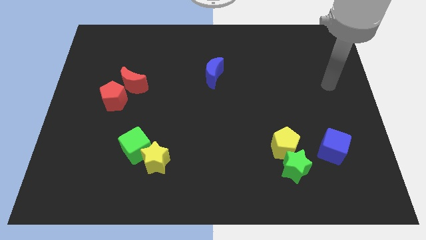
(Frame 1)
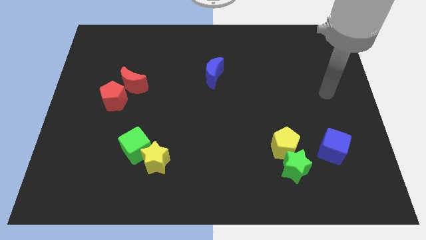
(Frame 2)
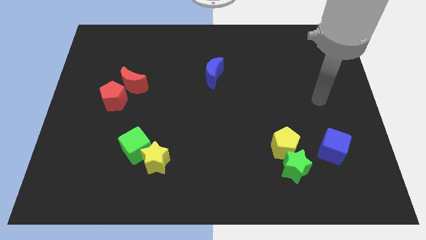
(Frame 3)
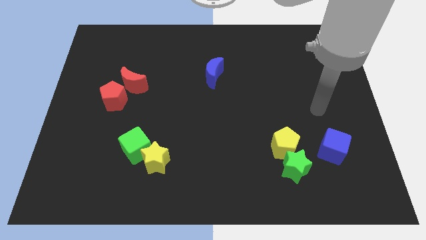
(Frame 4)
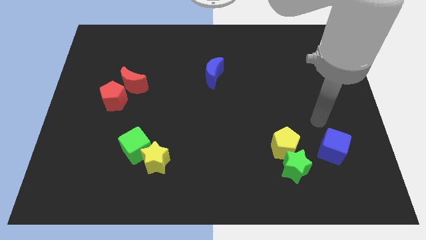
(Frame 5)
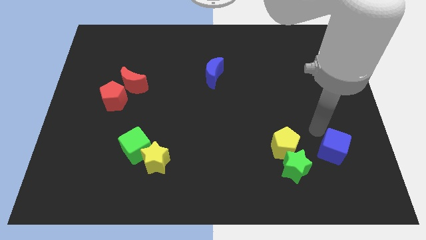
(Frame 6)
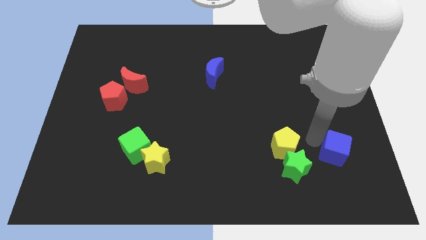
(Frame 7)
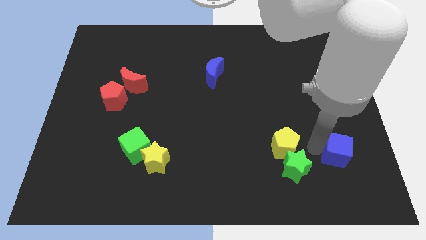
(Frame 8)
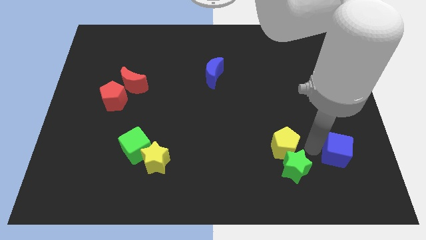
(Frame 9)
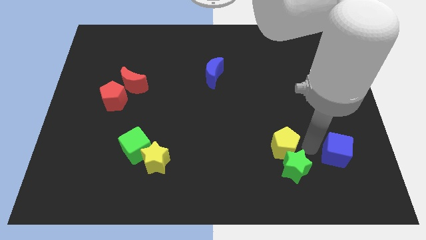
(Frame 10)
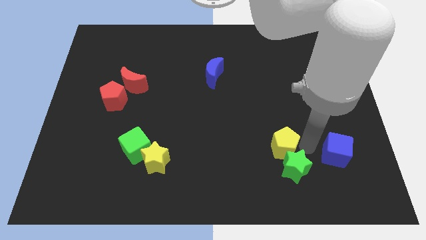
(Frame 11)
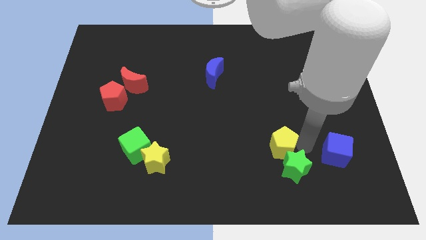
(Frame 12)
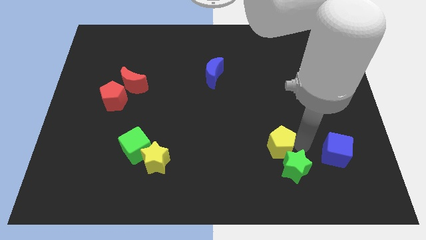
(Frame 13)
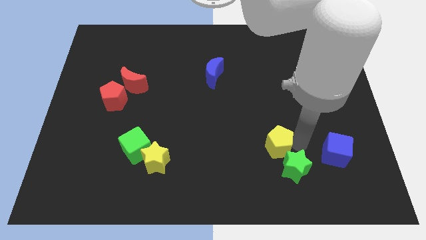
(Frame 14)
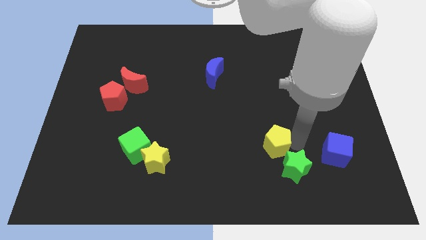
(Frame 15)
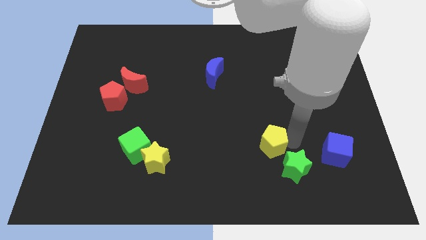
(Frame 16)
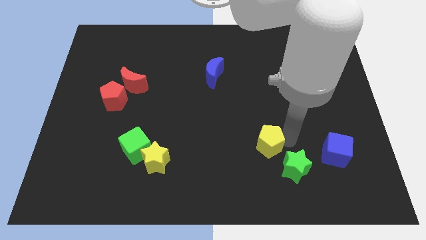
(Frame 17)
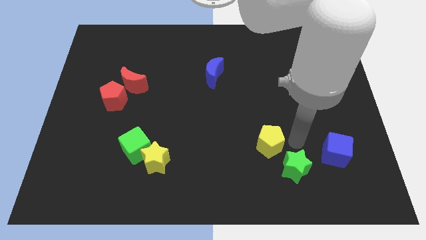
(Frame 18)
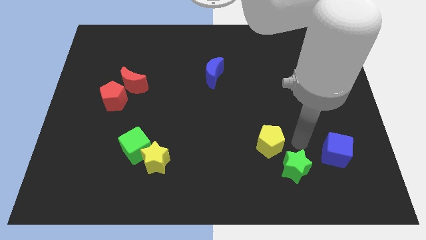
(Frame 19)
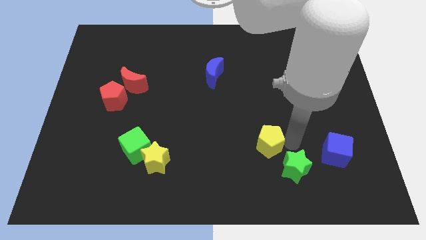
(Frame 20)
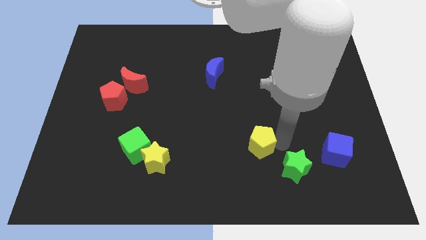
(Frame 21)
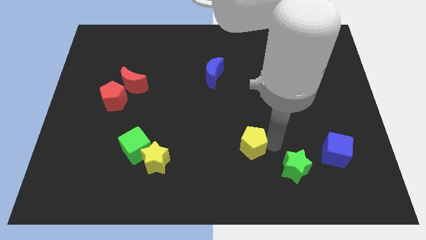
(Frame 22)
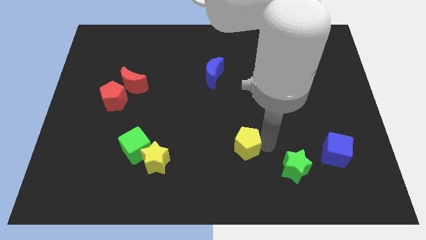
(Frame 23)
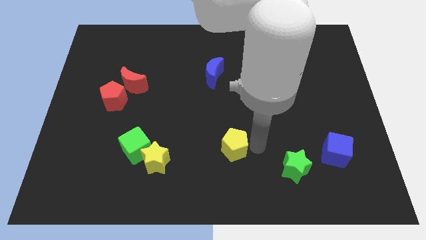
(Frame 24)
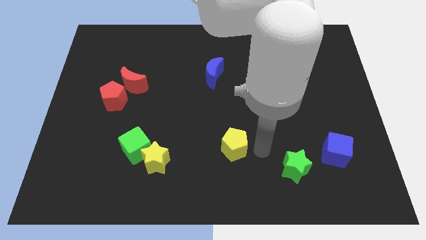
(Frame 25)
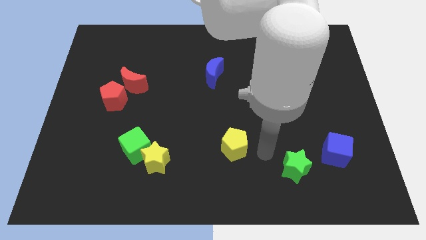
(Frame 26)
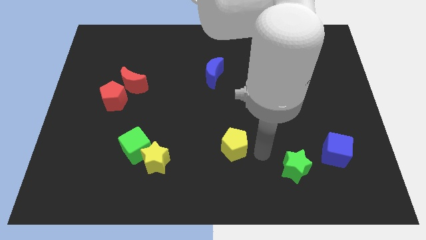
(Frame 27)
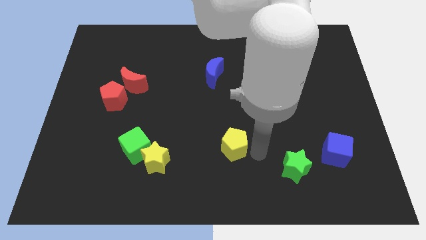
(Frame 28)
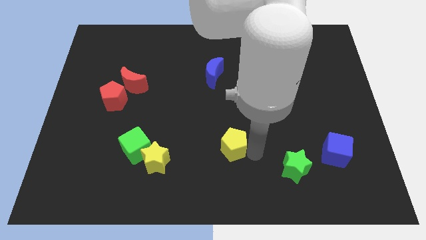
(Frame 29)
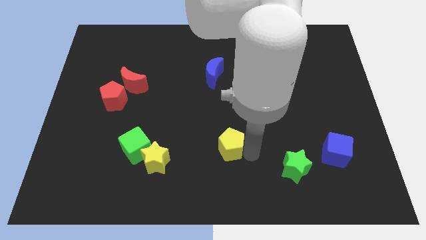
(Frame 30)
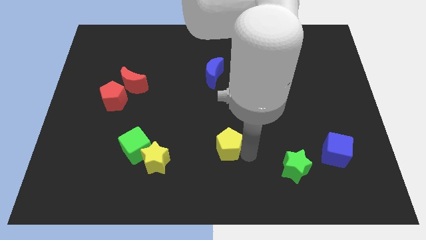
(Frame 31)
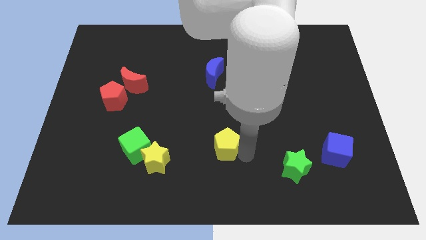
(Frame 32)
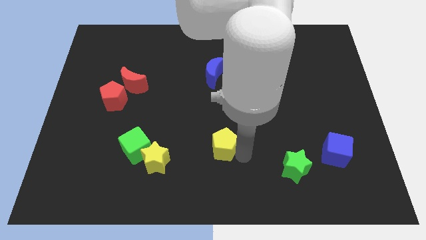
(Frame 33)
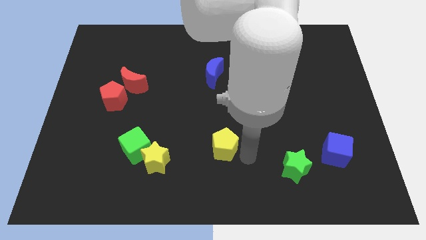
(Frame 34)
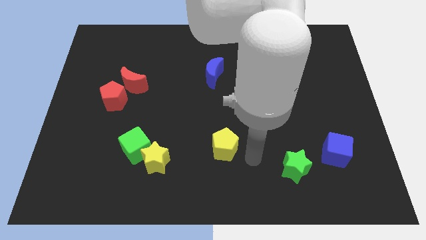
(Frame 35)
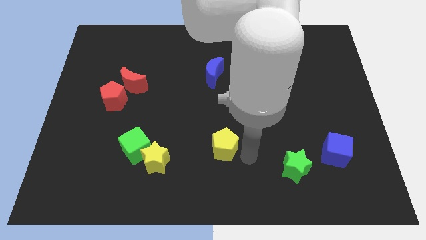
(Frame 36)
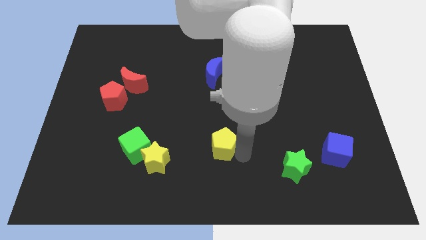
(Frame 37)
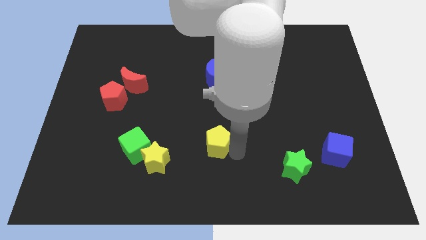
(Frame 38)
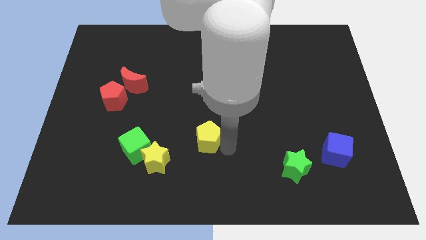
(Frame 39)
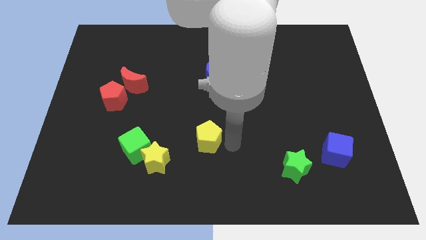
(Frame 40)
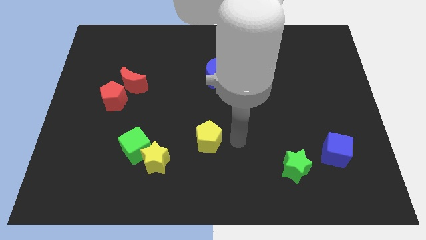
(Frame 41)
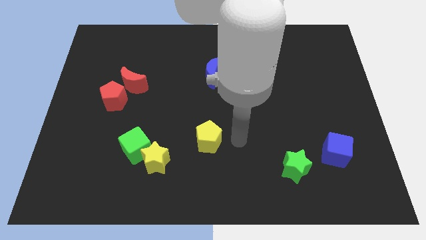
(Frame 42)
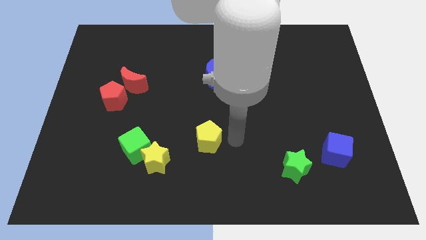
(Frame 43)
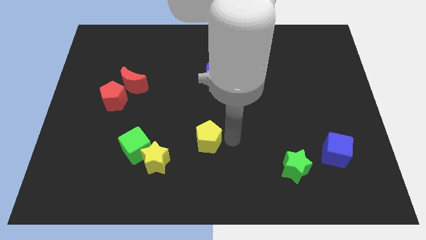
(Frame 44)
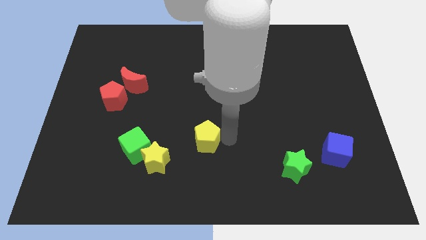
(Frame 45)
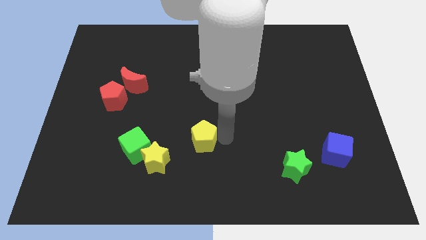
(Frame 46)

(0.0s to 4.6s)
slide the yellow pentagon diagonally up and to the right of the yellow star

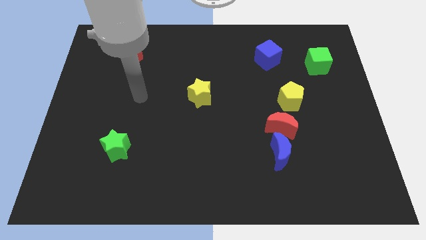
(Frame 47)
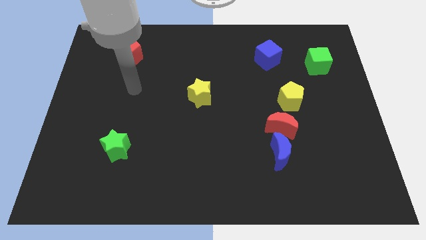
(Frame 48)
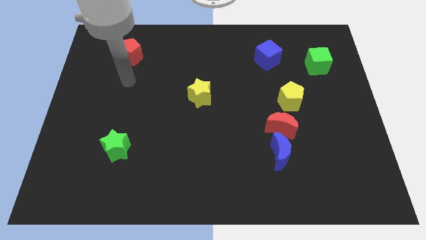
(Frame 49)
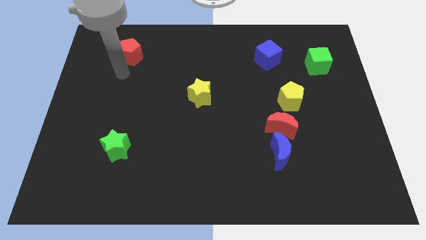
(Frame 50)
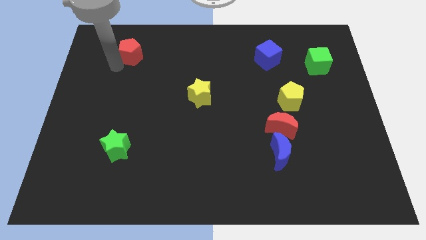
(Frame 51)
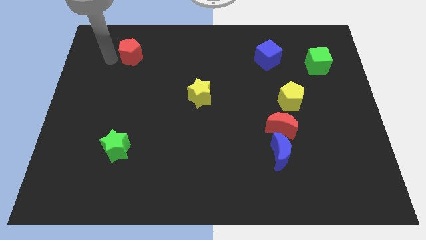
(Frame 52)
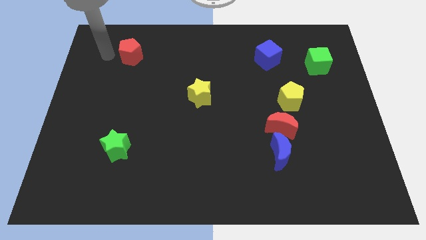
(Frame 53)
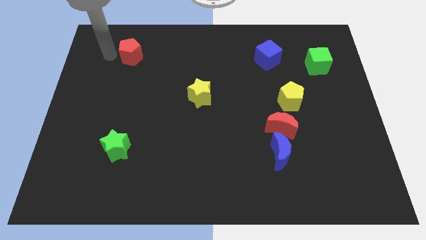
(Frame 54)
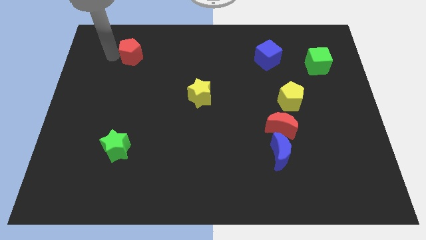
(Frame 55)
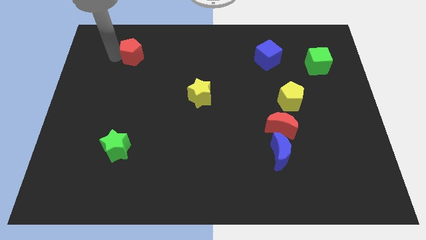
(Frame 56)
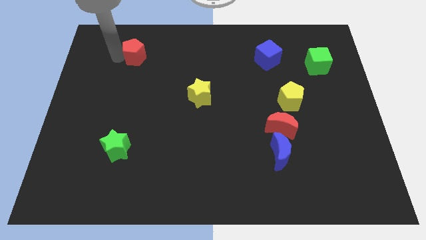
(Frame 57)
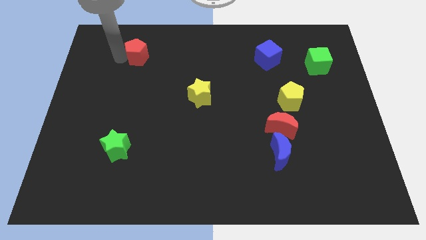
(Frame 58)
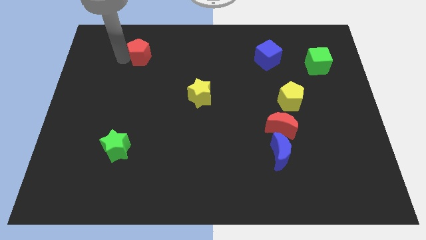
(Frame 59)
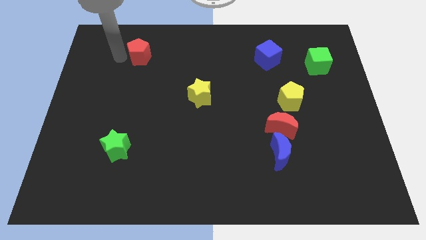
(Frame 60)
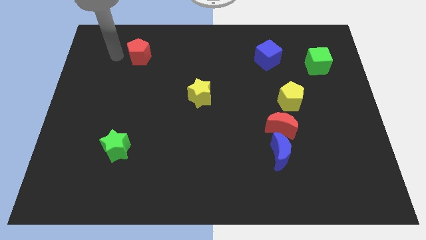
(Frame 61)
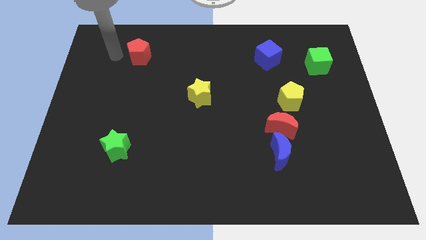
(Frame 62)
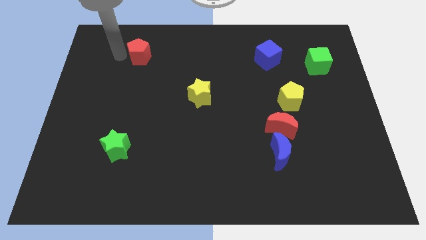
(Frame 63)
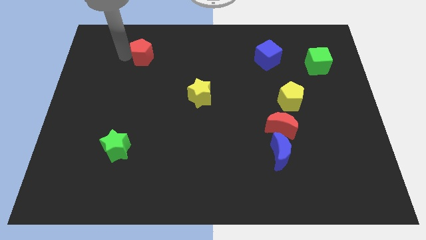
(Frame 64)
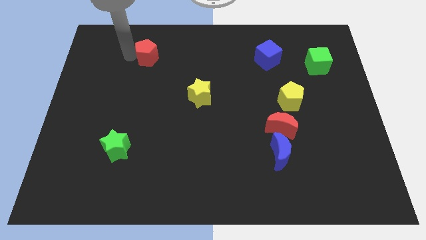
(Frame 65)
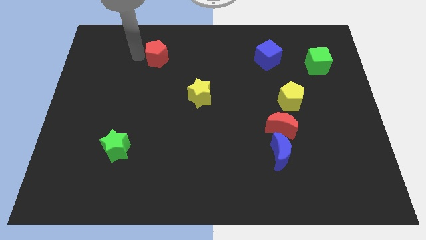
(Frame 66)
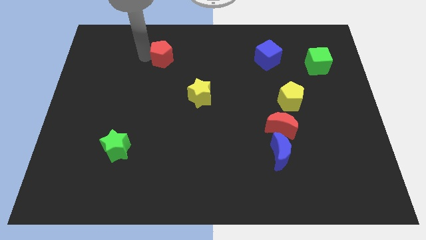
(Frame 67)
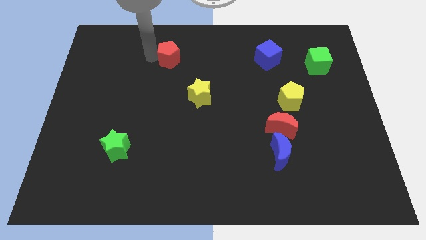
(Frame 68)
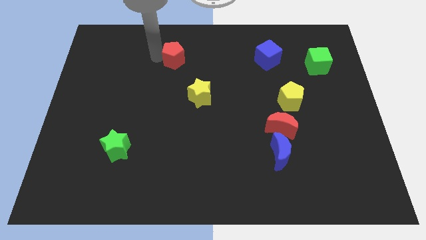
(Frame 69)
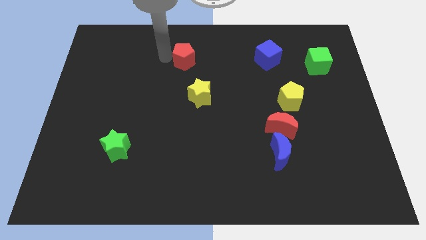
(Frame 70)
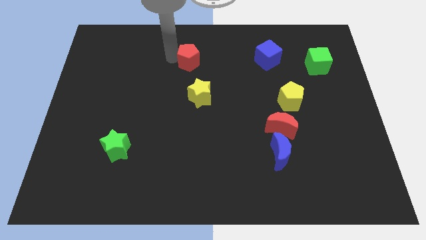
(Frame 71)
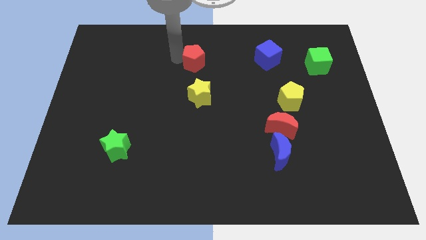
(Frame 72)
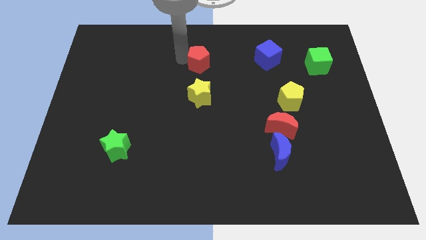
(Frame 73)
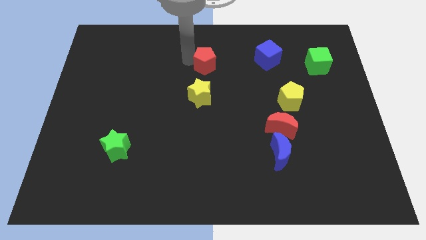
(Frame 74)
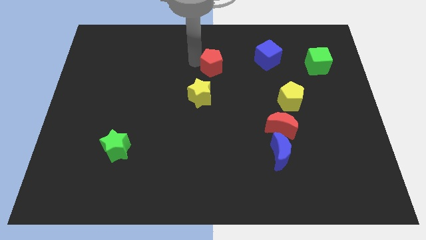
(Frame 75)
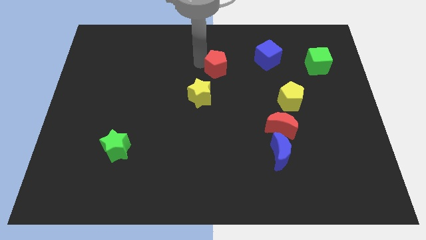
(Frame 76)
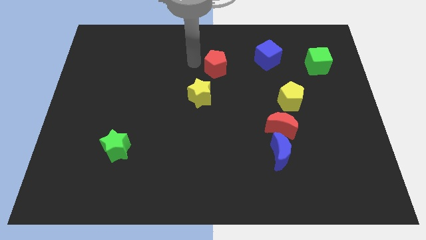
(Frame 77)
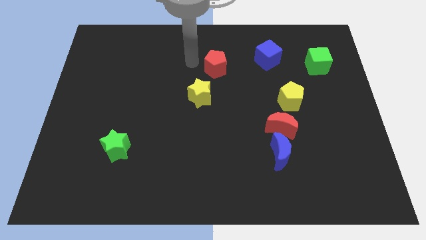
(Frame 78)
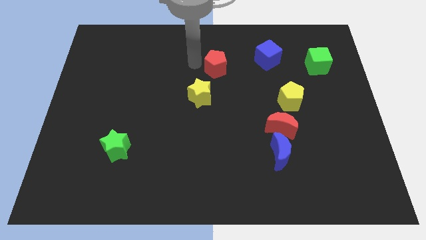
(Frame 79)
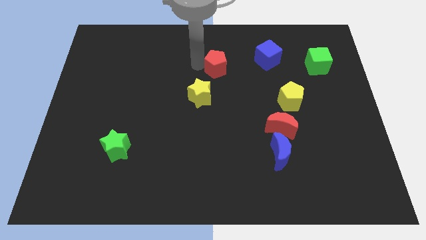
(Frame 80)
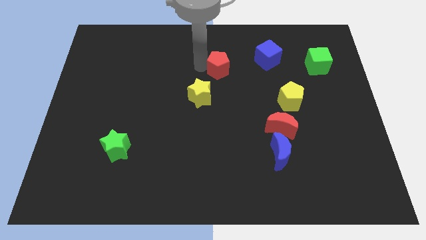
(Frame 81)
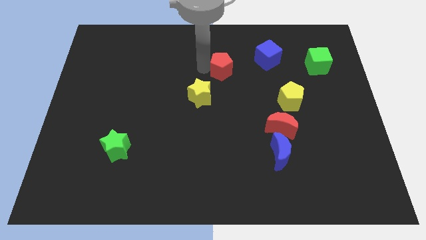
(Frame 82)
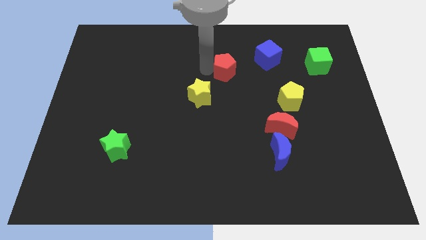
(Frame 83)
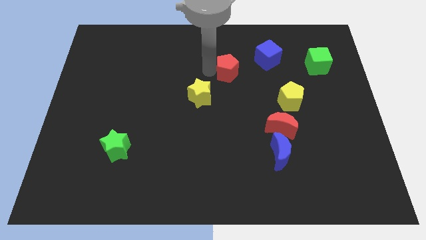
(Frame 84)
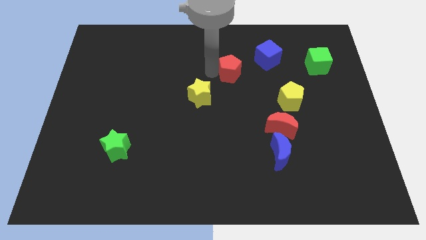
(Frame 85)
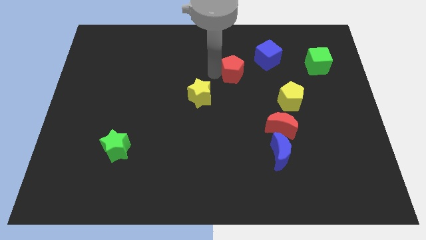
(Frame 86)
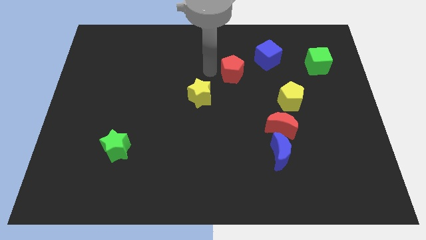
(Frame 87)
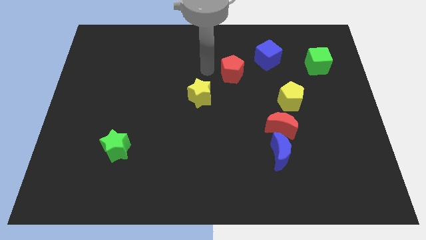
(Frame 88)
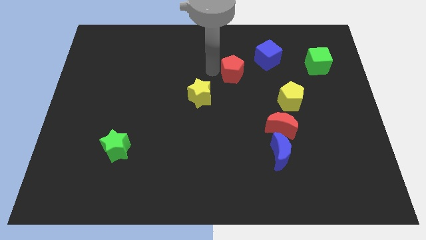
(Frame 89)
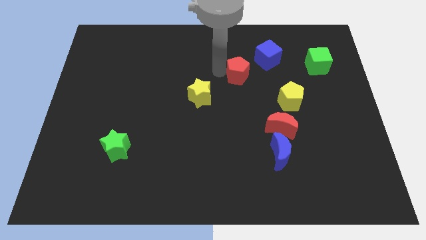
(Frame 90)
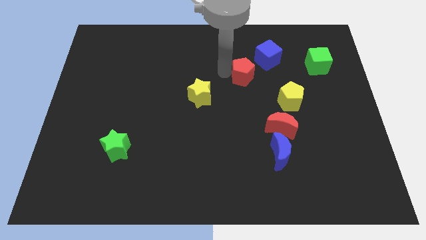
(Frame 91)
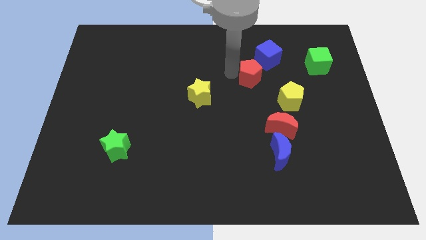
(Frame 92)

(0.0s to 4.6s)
move the red pentagon to the top left of the yellow pentagon
